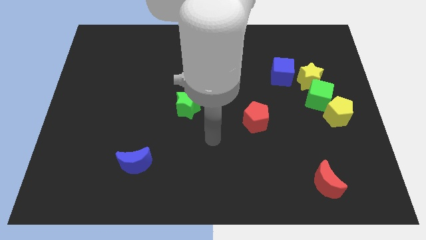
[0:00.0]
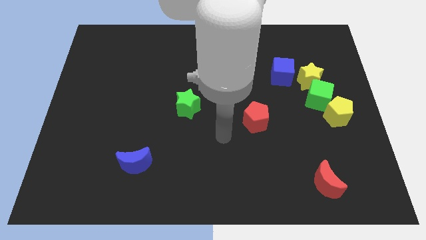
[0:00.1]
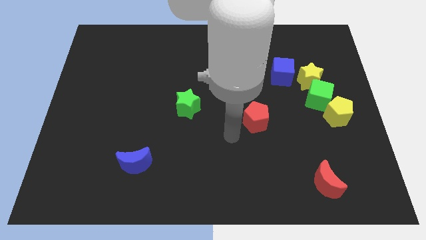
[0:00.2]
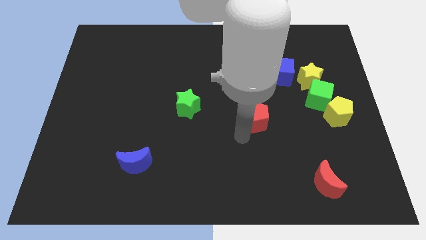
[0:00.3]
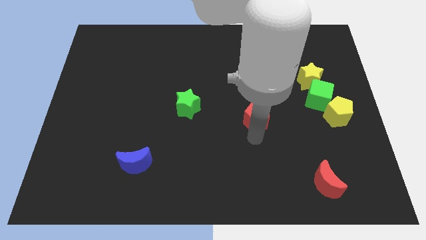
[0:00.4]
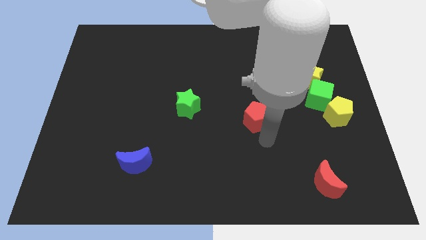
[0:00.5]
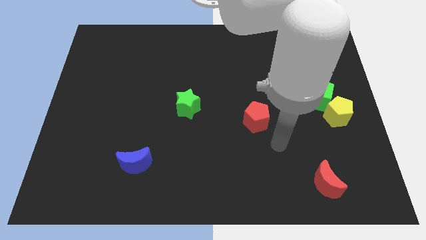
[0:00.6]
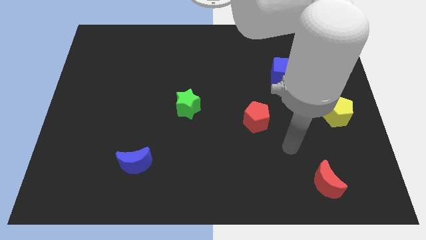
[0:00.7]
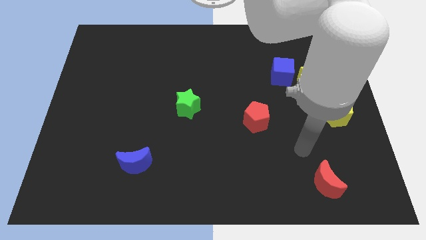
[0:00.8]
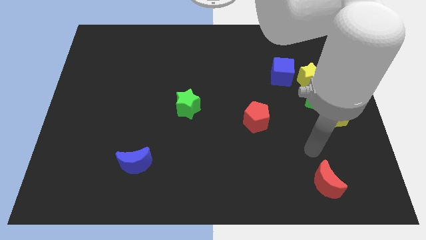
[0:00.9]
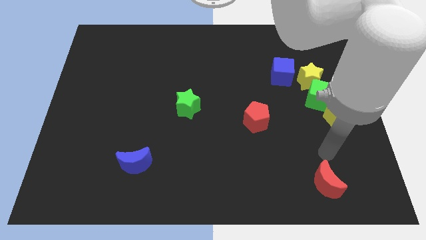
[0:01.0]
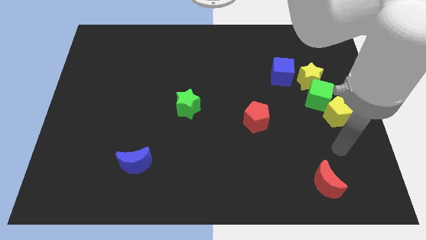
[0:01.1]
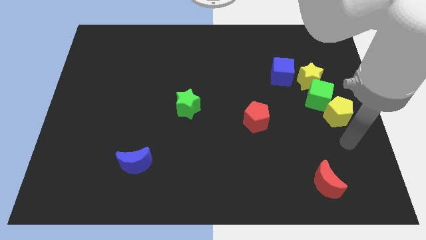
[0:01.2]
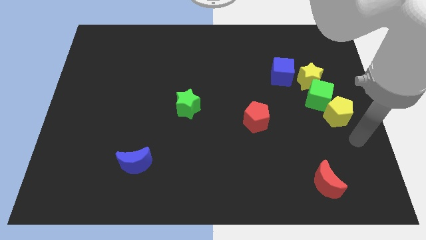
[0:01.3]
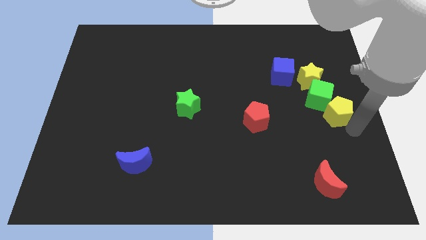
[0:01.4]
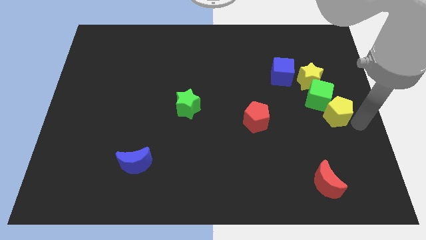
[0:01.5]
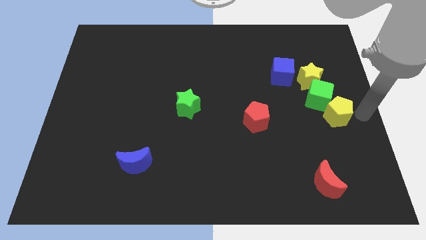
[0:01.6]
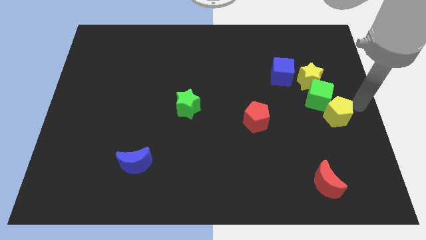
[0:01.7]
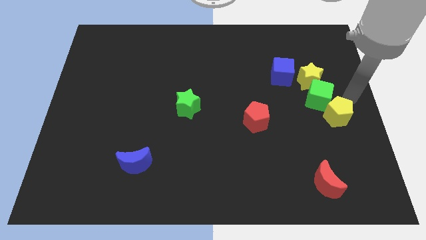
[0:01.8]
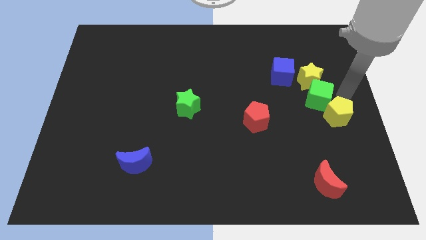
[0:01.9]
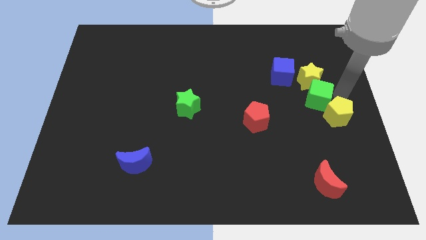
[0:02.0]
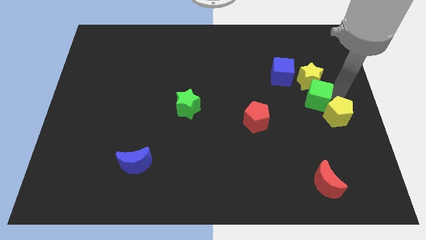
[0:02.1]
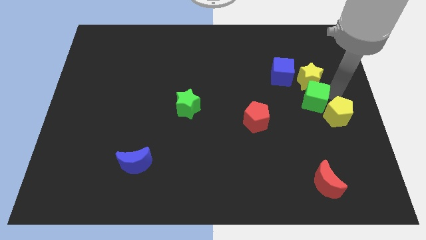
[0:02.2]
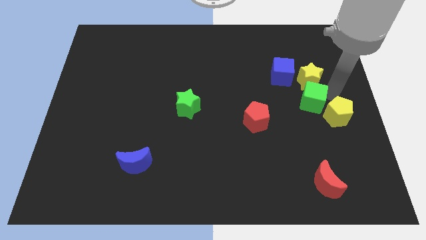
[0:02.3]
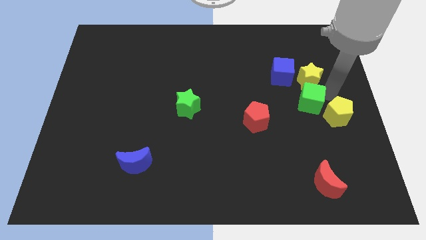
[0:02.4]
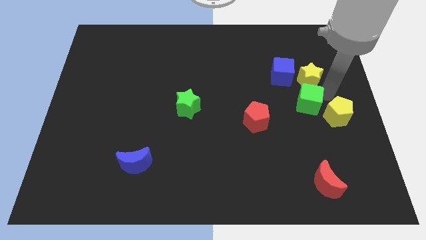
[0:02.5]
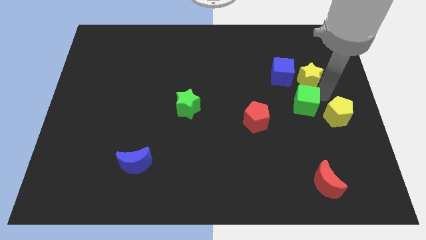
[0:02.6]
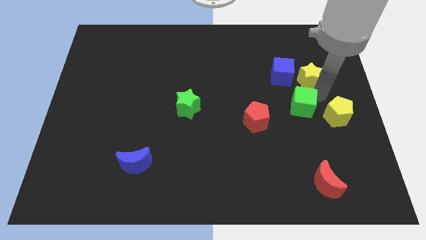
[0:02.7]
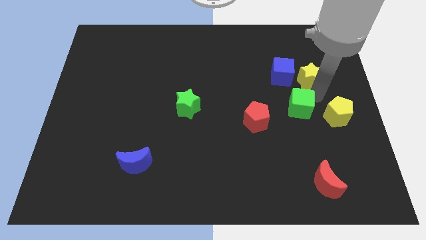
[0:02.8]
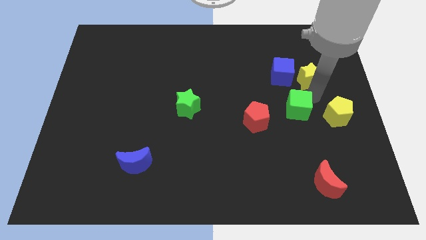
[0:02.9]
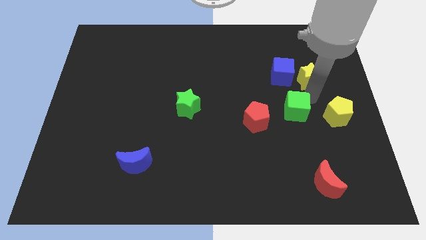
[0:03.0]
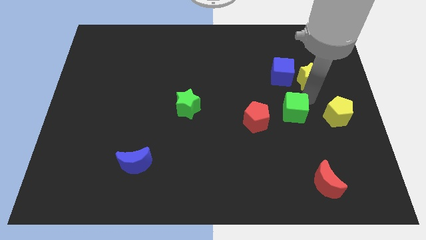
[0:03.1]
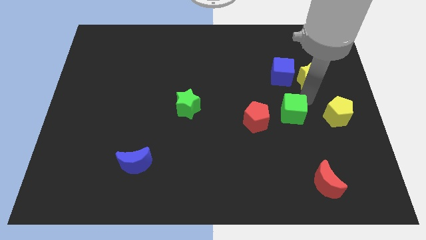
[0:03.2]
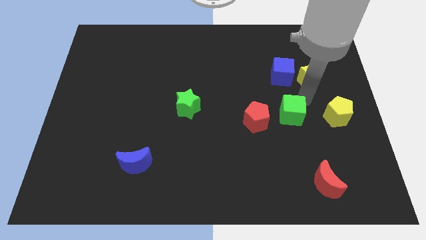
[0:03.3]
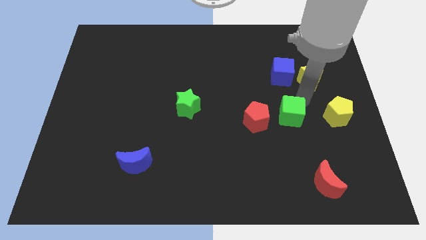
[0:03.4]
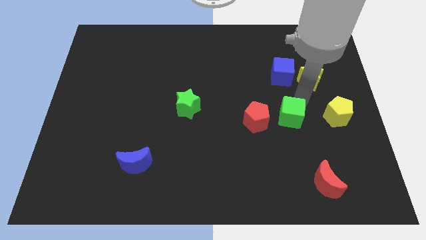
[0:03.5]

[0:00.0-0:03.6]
pull the green cube apart from the yellow star and yellow pentagon

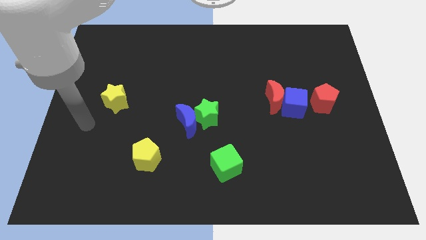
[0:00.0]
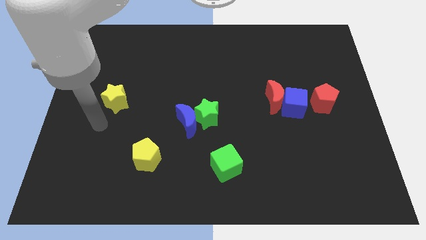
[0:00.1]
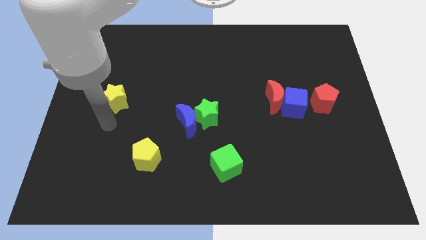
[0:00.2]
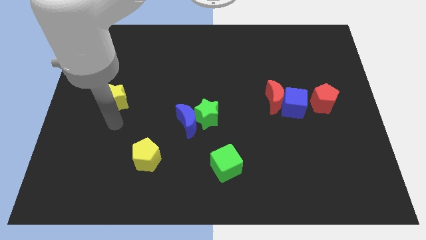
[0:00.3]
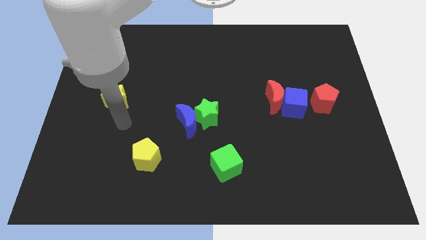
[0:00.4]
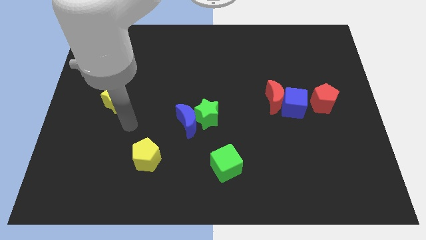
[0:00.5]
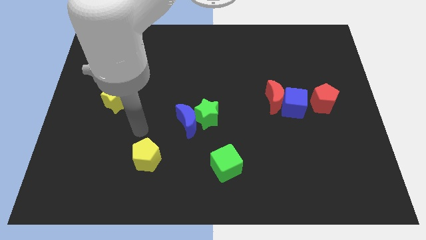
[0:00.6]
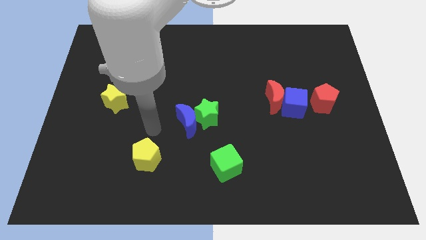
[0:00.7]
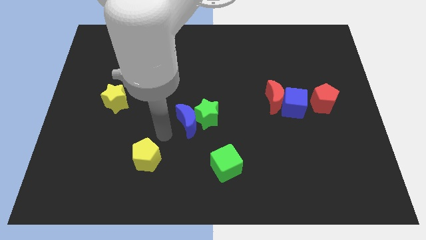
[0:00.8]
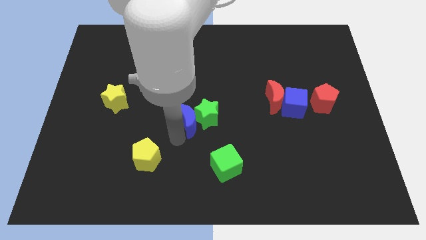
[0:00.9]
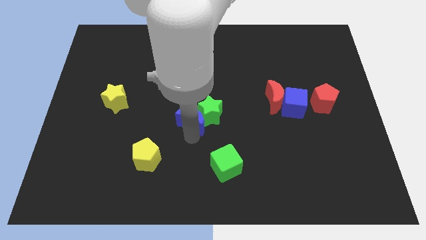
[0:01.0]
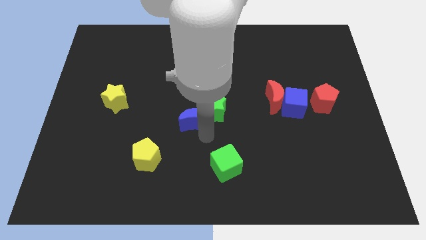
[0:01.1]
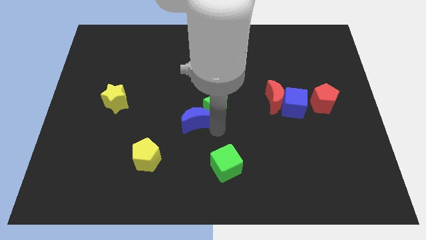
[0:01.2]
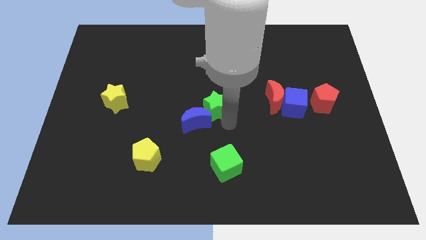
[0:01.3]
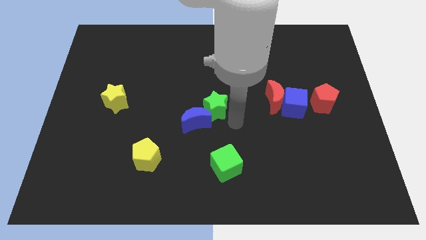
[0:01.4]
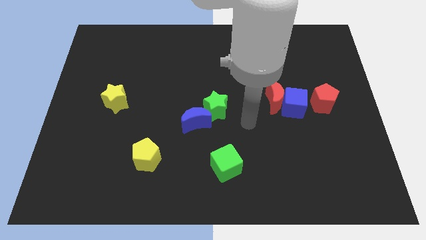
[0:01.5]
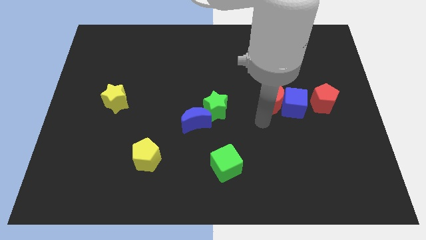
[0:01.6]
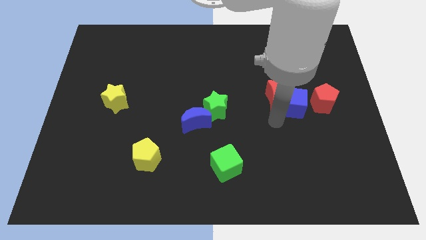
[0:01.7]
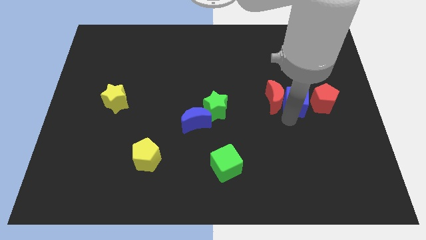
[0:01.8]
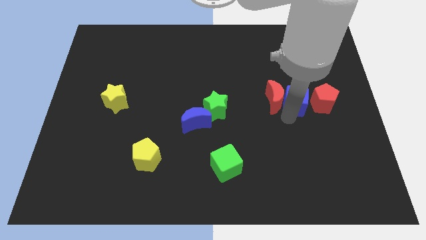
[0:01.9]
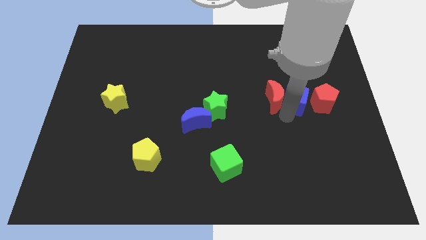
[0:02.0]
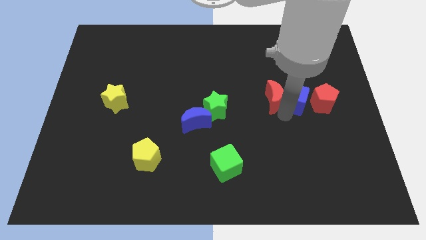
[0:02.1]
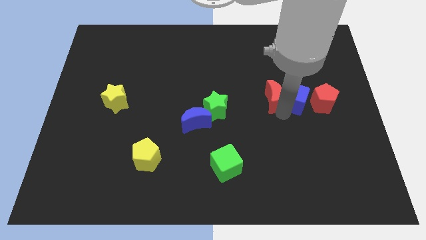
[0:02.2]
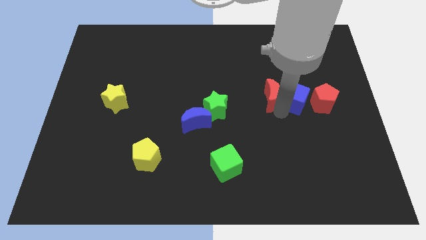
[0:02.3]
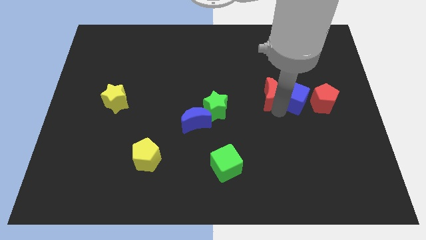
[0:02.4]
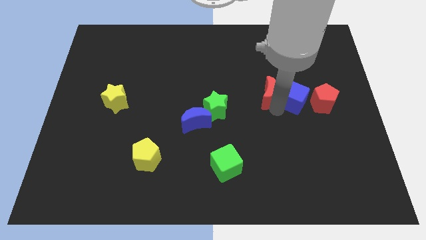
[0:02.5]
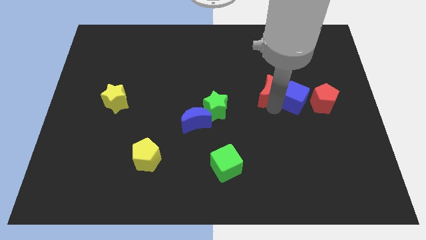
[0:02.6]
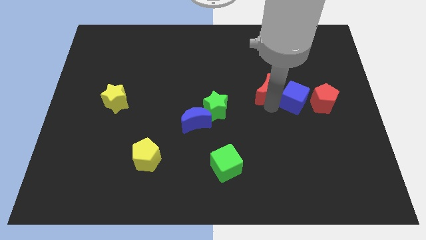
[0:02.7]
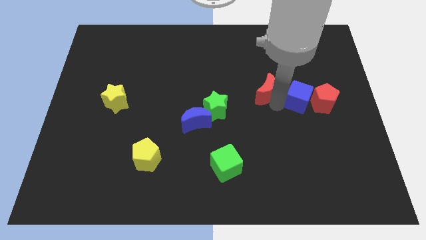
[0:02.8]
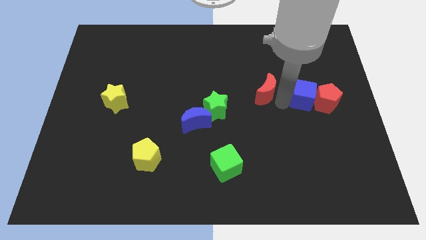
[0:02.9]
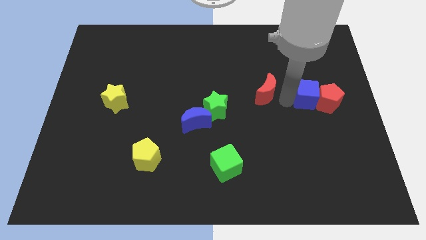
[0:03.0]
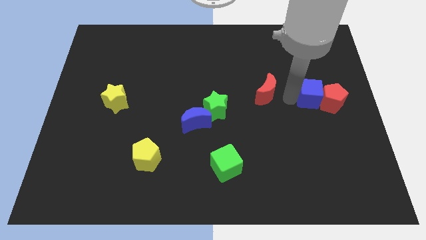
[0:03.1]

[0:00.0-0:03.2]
pull the red moon apart from the blue cube

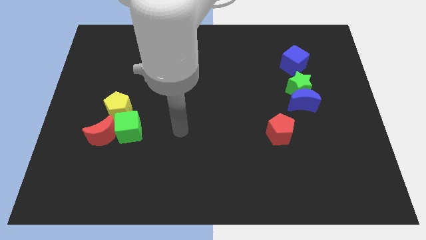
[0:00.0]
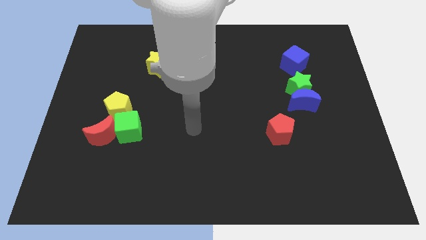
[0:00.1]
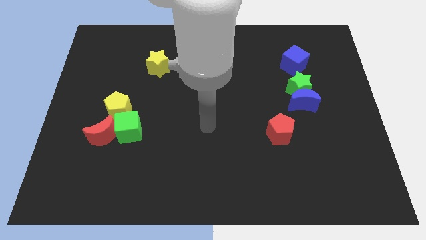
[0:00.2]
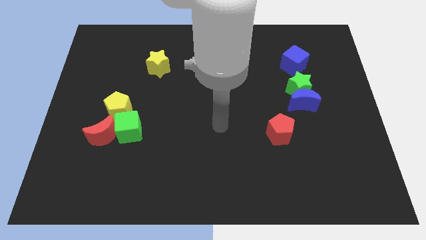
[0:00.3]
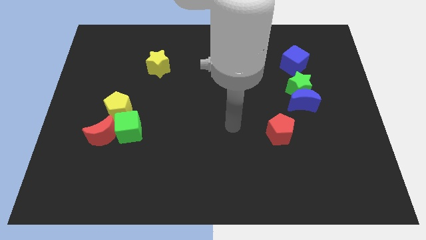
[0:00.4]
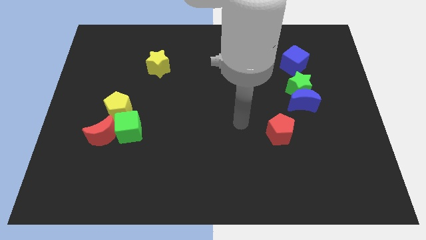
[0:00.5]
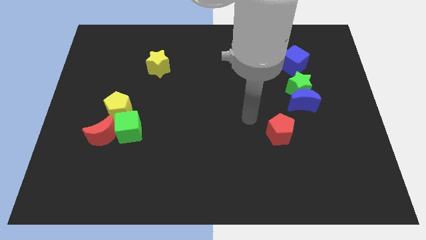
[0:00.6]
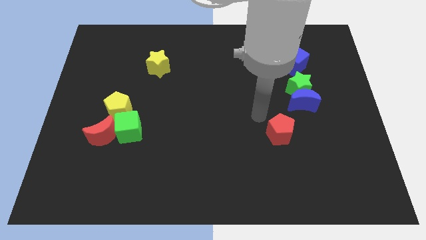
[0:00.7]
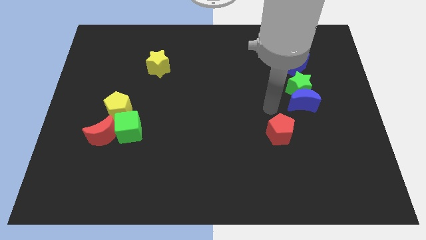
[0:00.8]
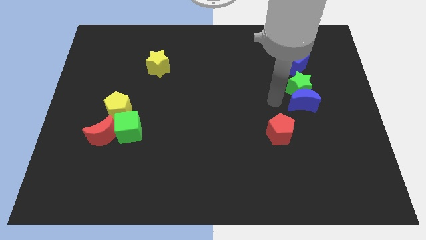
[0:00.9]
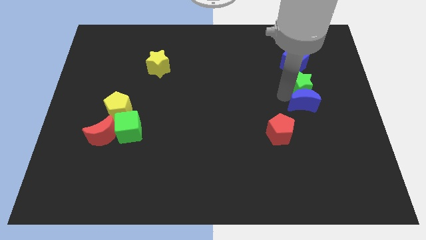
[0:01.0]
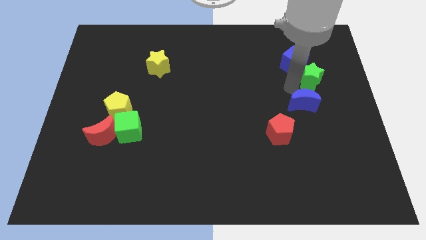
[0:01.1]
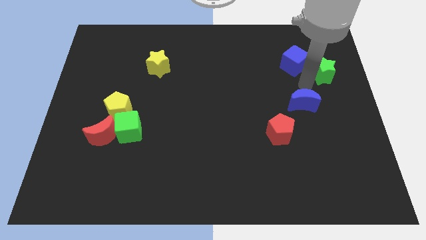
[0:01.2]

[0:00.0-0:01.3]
pull the blue moon apart from the green star

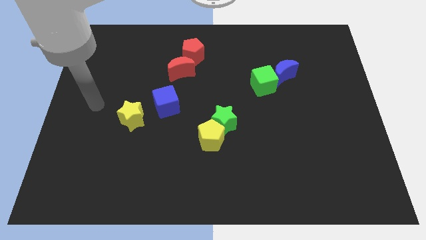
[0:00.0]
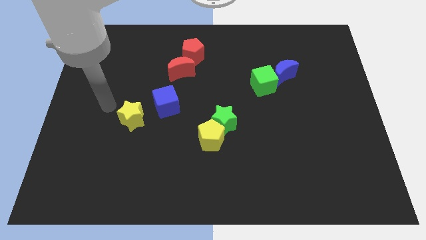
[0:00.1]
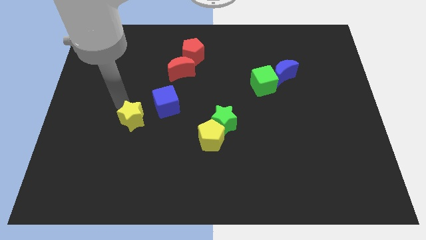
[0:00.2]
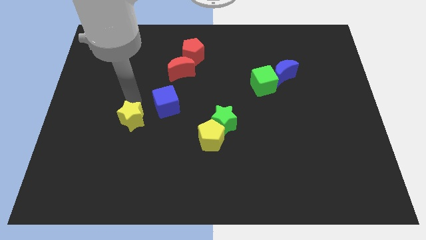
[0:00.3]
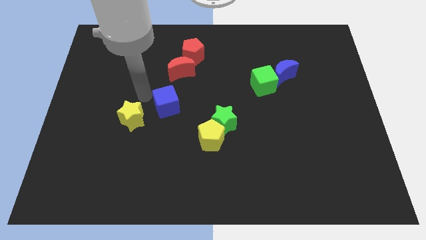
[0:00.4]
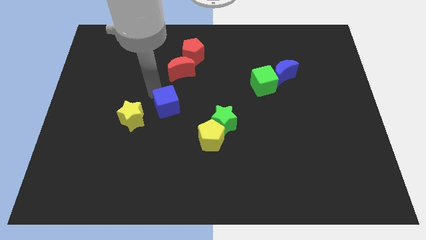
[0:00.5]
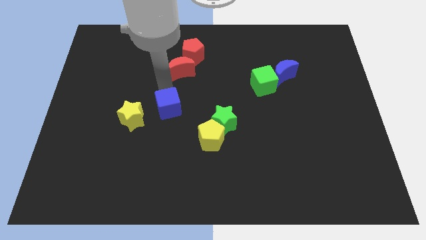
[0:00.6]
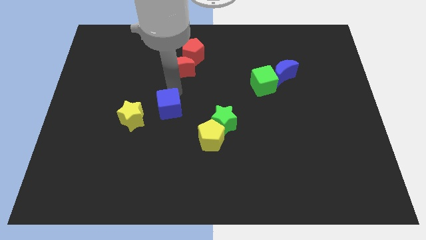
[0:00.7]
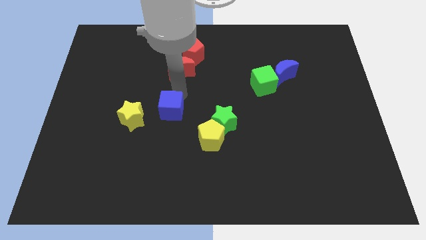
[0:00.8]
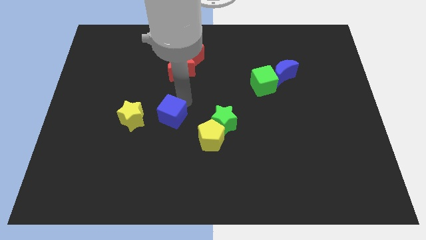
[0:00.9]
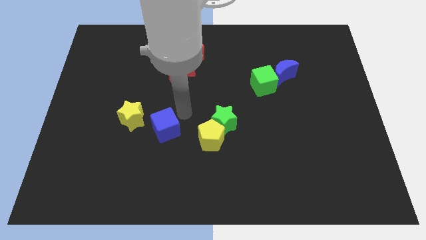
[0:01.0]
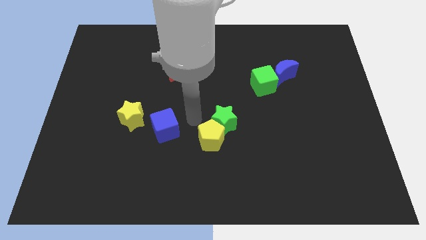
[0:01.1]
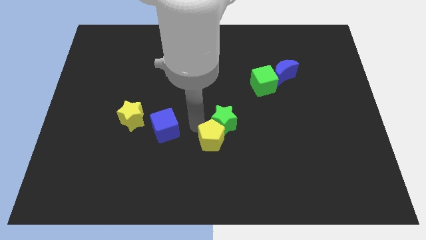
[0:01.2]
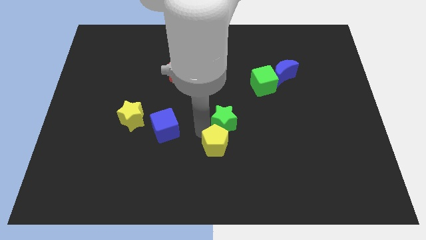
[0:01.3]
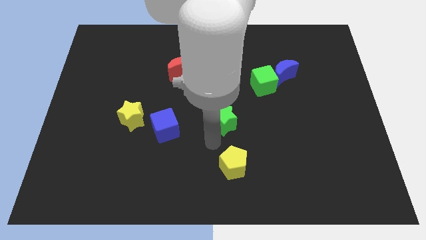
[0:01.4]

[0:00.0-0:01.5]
separate the green star from the yellow pentagon
